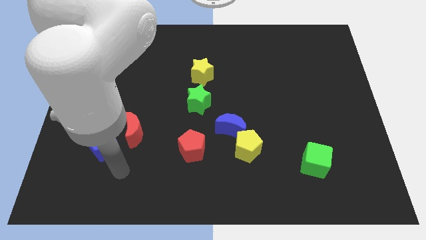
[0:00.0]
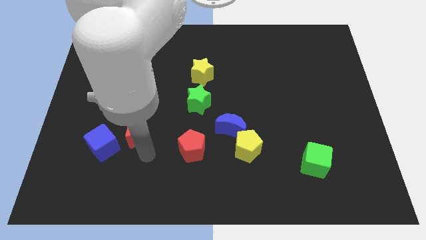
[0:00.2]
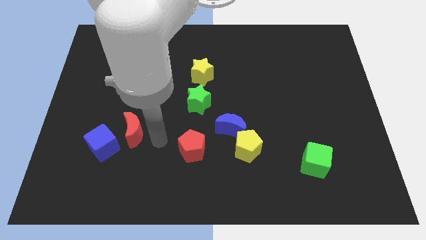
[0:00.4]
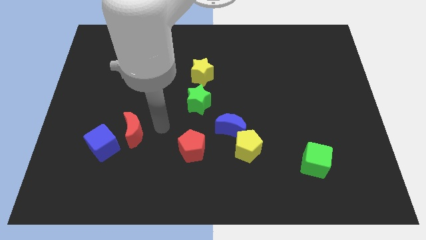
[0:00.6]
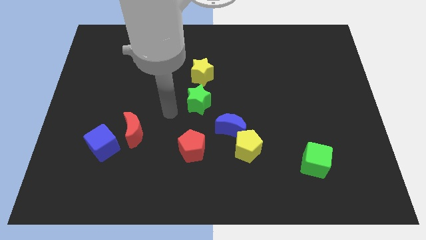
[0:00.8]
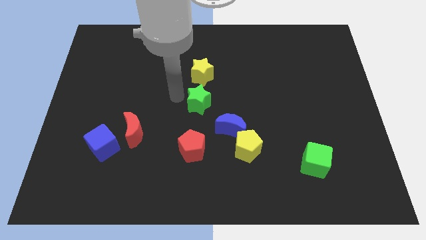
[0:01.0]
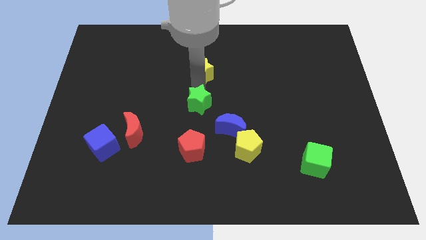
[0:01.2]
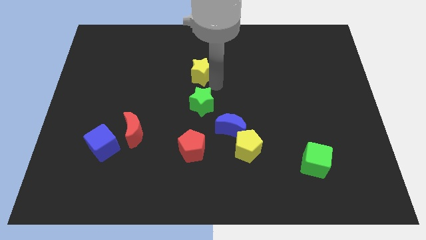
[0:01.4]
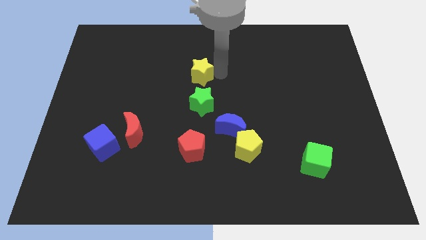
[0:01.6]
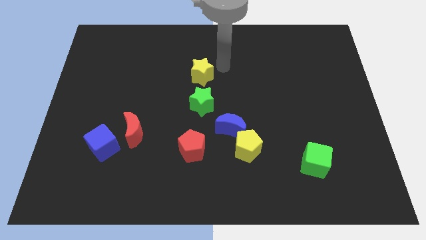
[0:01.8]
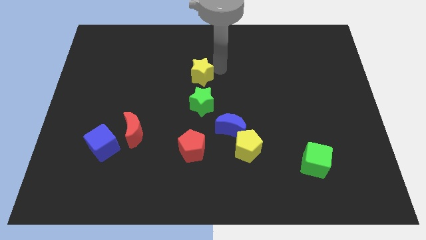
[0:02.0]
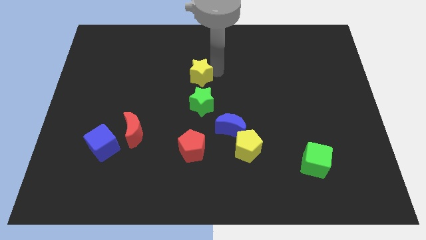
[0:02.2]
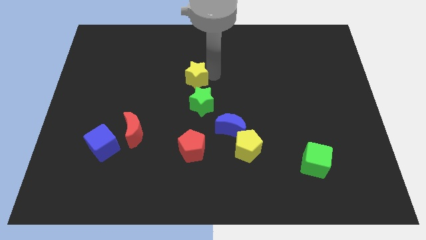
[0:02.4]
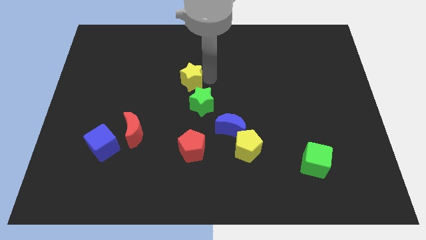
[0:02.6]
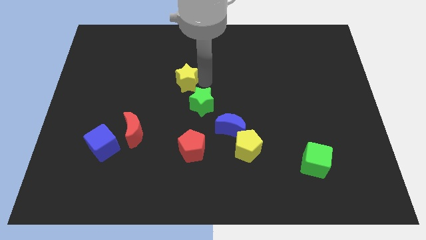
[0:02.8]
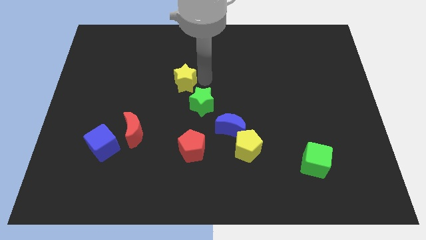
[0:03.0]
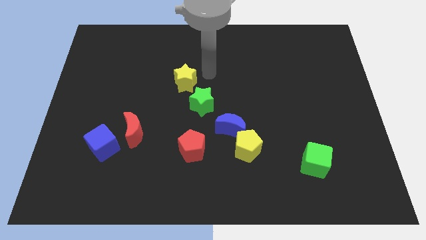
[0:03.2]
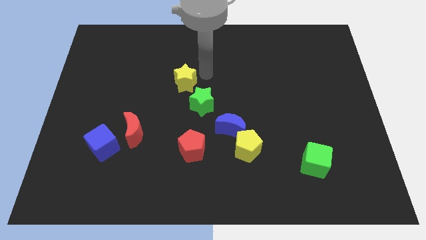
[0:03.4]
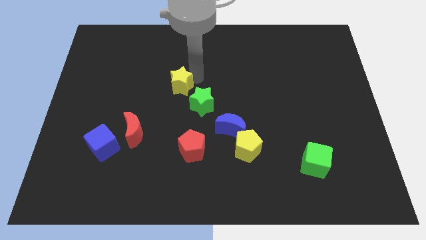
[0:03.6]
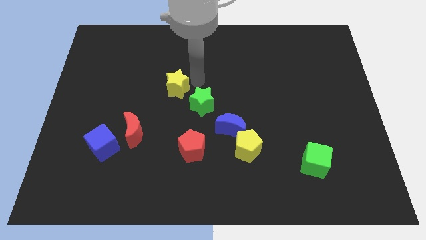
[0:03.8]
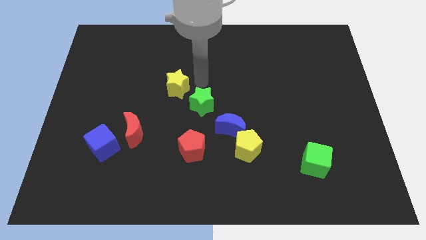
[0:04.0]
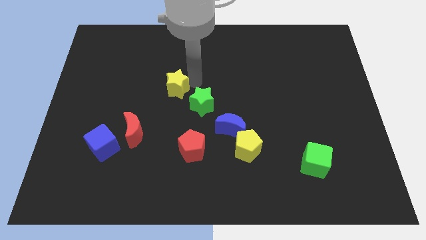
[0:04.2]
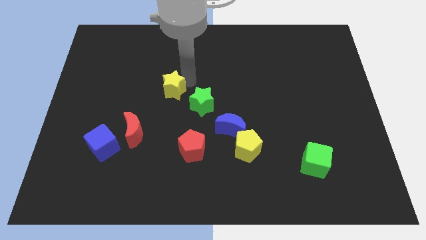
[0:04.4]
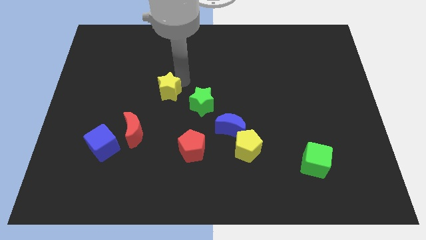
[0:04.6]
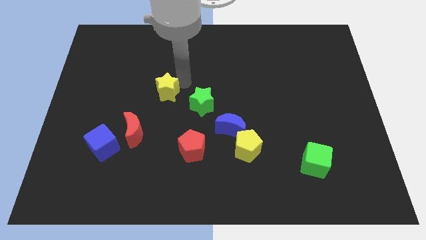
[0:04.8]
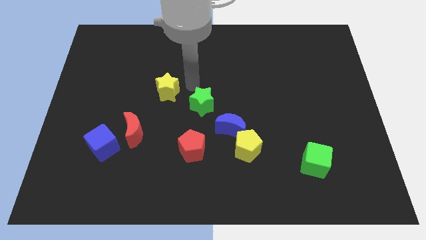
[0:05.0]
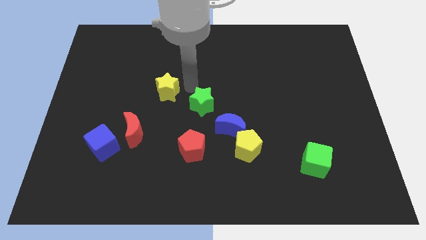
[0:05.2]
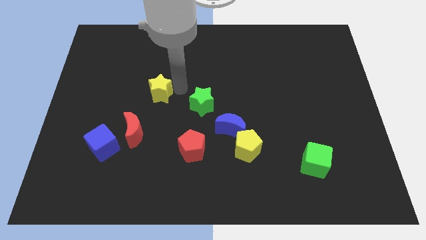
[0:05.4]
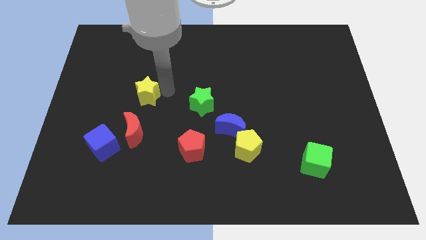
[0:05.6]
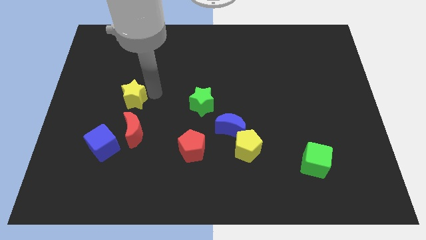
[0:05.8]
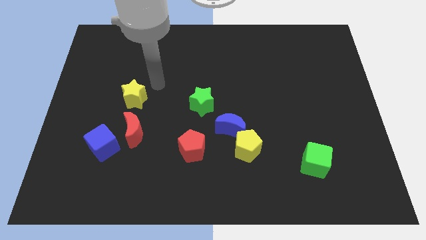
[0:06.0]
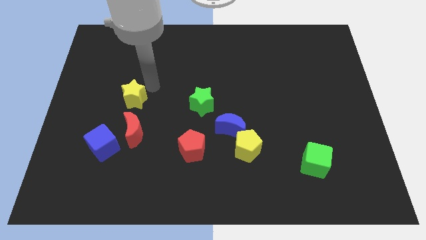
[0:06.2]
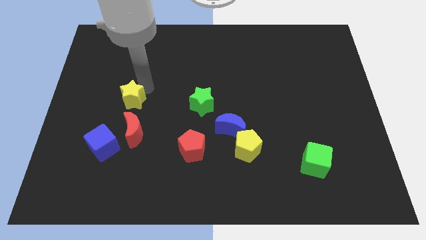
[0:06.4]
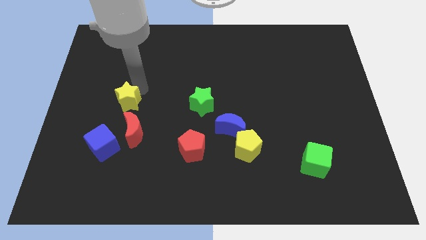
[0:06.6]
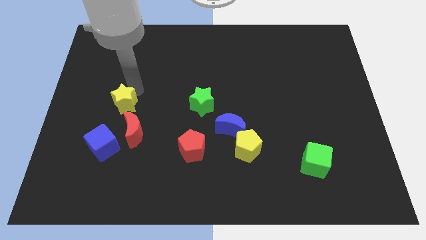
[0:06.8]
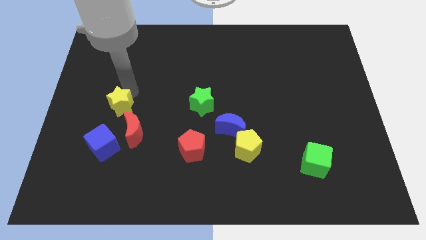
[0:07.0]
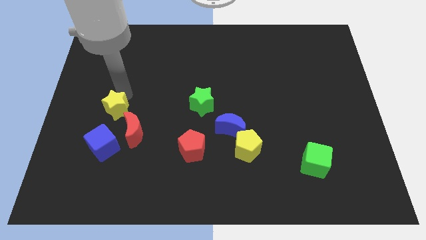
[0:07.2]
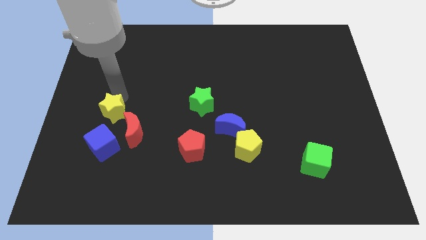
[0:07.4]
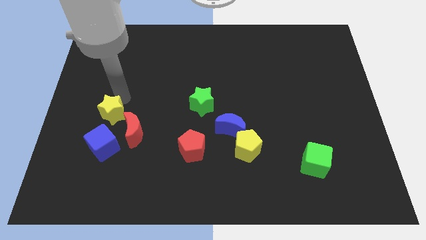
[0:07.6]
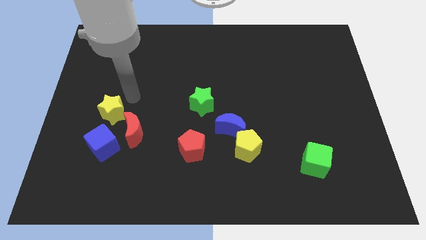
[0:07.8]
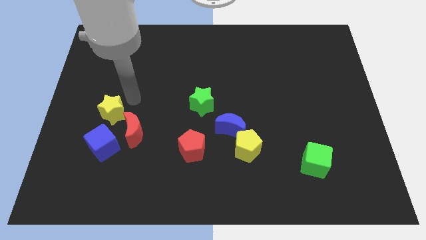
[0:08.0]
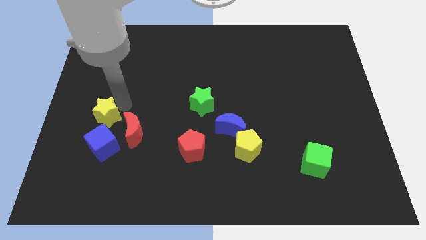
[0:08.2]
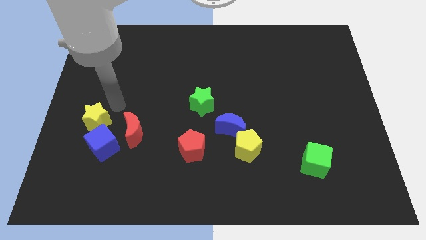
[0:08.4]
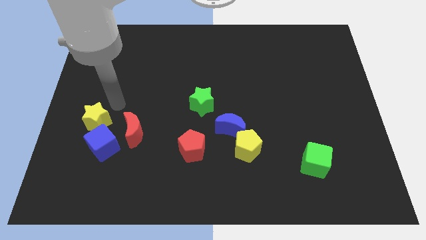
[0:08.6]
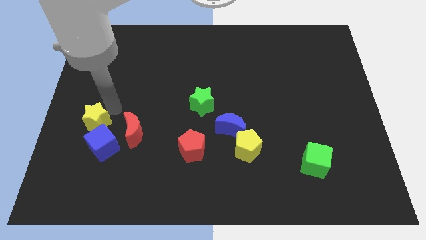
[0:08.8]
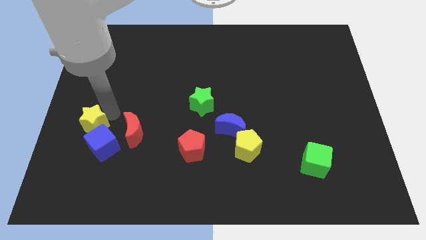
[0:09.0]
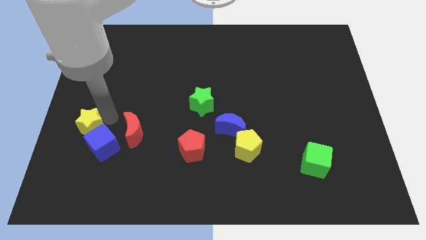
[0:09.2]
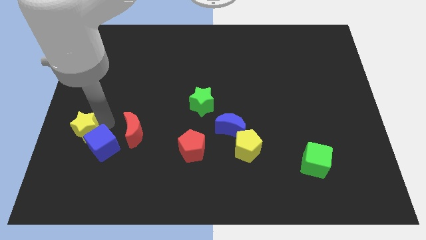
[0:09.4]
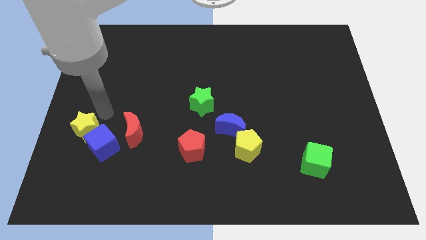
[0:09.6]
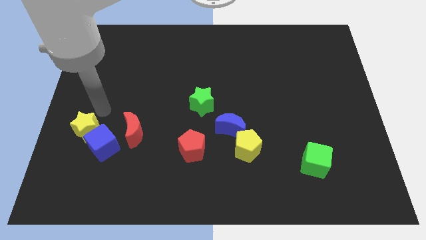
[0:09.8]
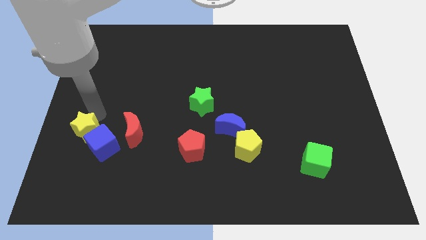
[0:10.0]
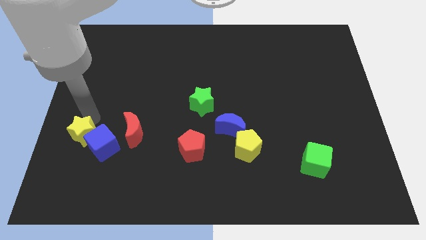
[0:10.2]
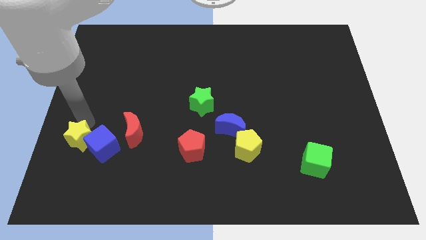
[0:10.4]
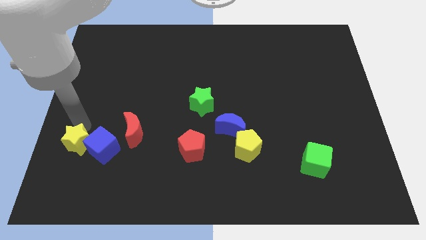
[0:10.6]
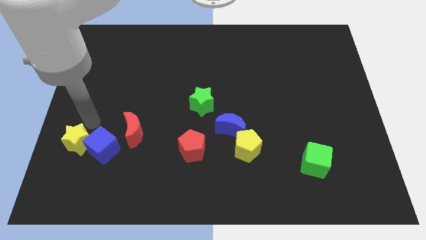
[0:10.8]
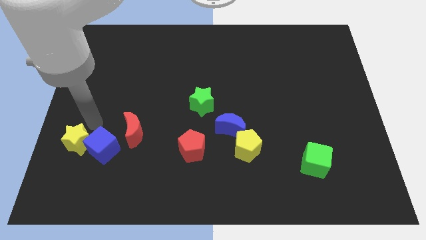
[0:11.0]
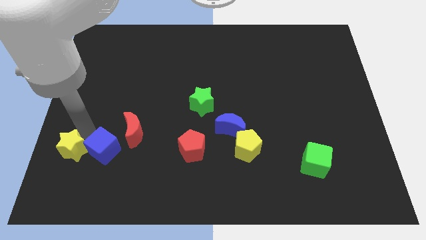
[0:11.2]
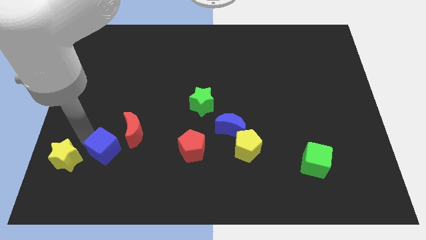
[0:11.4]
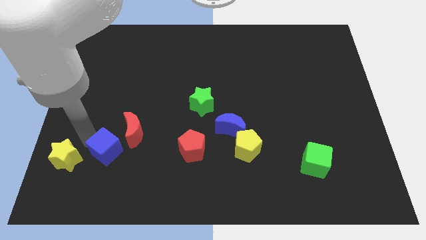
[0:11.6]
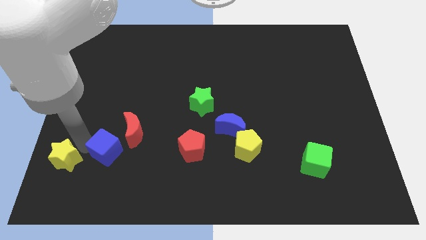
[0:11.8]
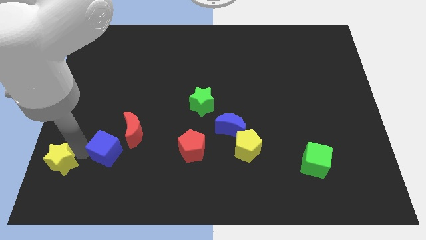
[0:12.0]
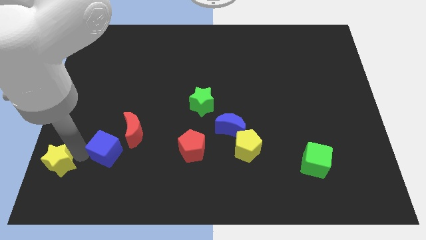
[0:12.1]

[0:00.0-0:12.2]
put the yellow star to the bottom left of the board

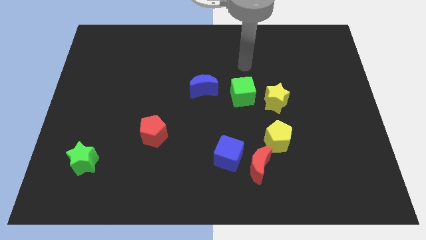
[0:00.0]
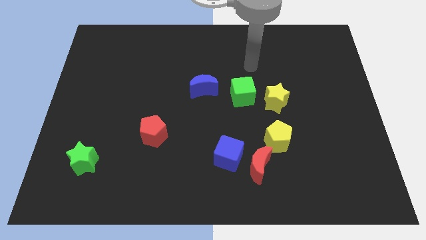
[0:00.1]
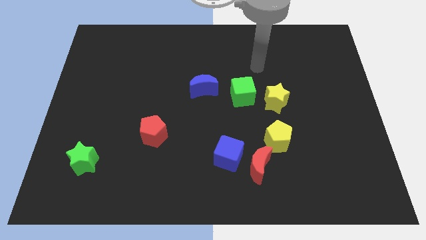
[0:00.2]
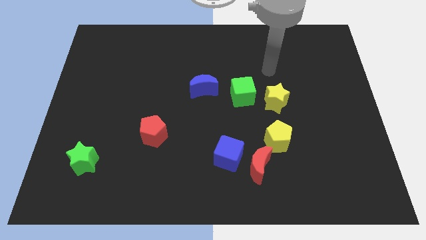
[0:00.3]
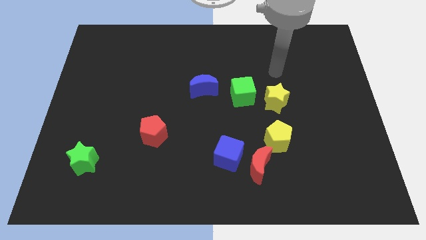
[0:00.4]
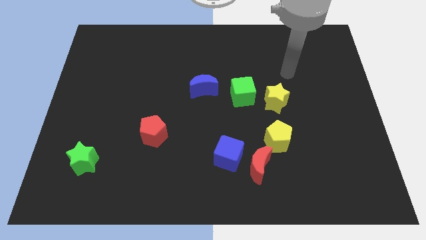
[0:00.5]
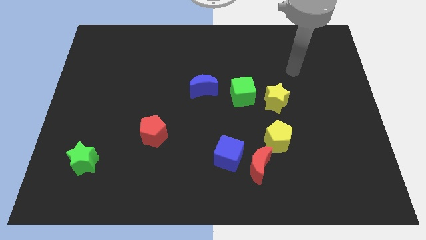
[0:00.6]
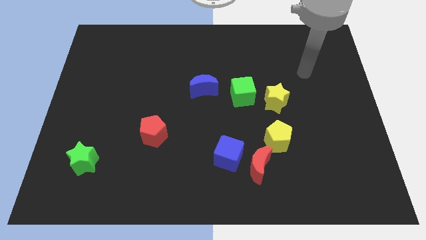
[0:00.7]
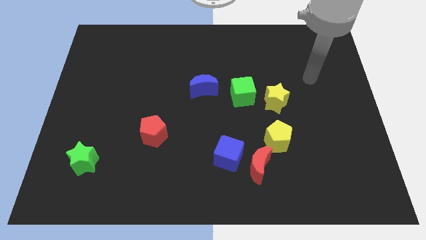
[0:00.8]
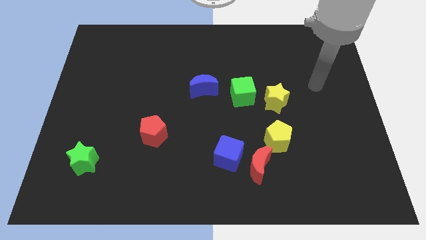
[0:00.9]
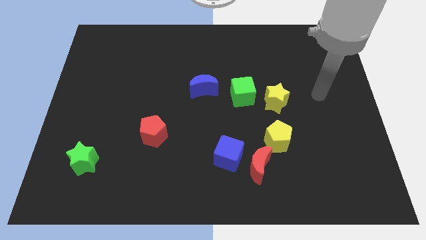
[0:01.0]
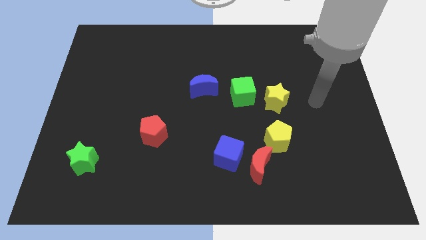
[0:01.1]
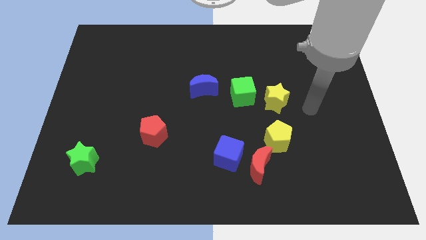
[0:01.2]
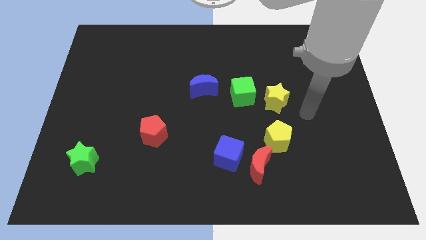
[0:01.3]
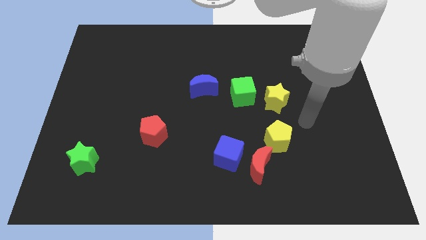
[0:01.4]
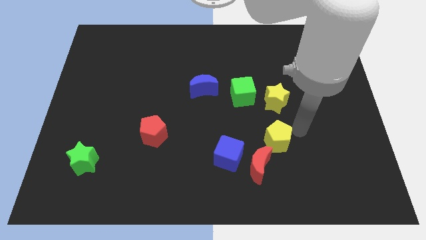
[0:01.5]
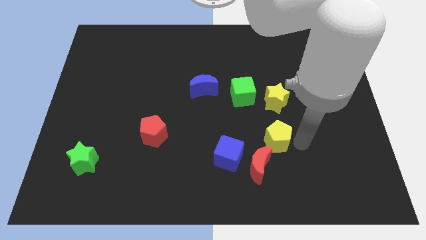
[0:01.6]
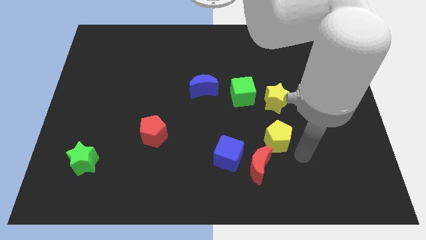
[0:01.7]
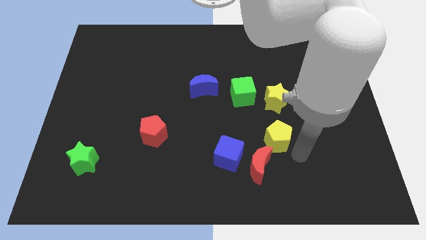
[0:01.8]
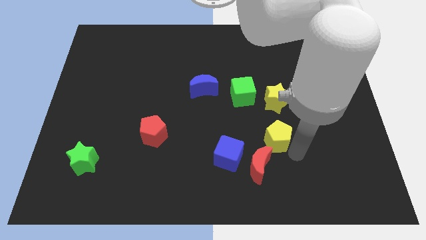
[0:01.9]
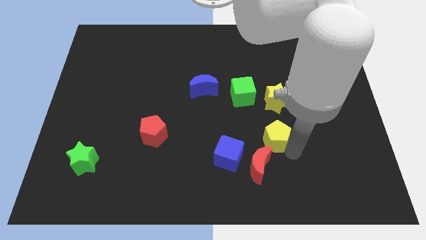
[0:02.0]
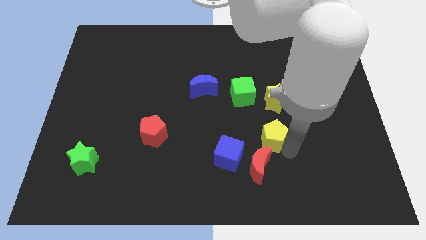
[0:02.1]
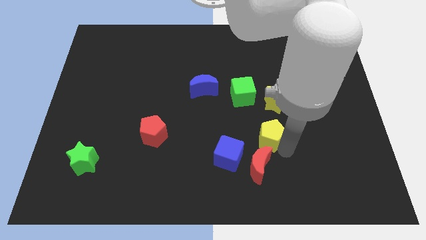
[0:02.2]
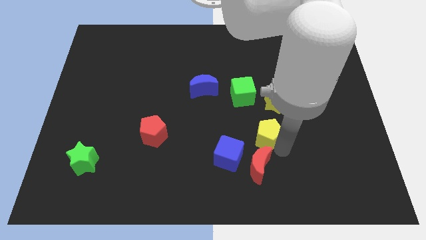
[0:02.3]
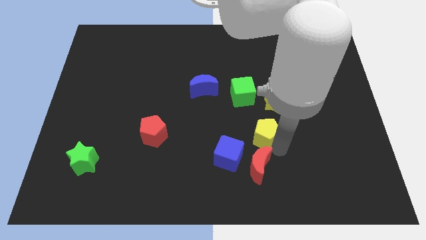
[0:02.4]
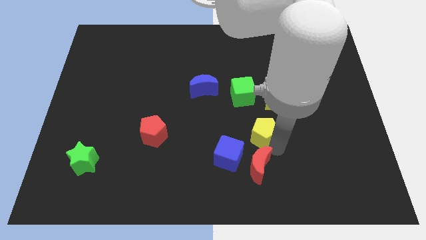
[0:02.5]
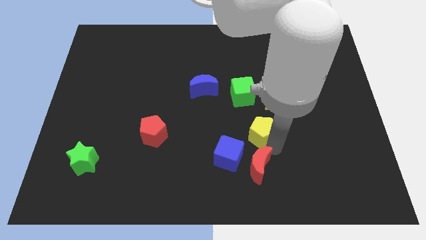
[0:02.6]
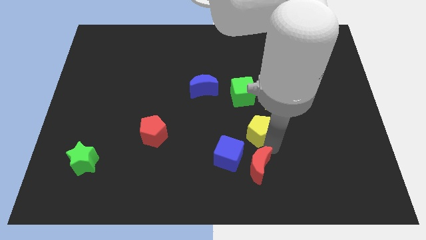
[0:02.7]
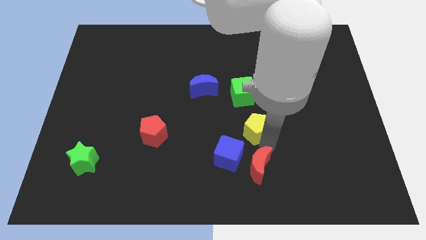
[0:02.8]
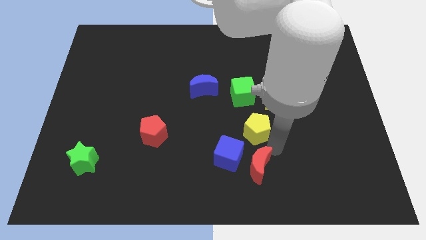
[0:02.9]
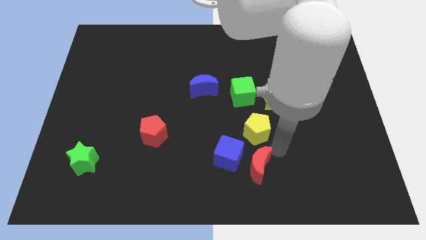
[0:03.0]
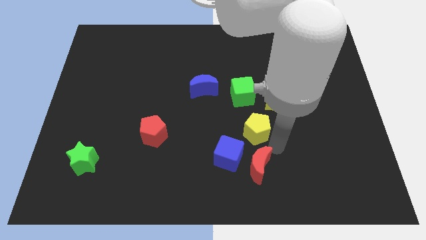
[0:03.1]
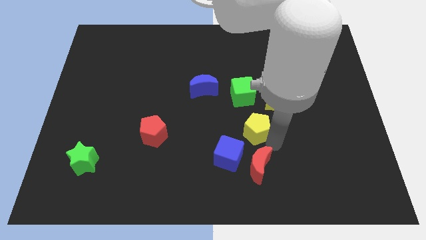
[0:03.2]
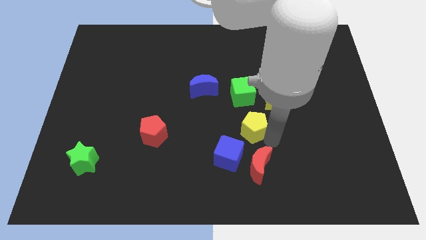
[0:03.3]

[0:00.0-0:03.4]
push the yellow pentagon to the center of the board
